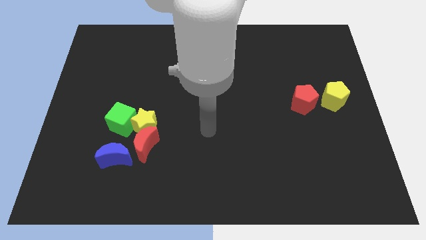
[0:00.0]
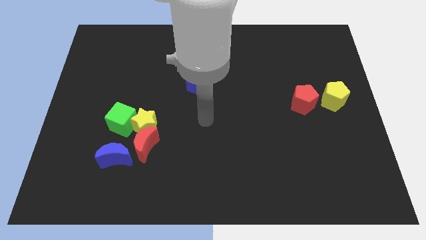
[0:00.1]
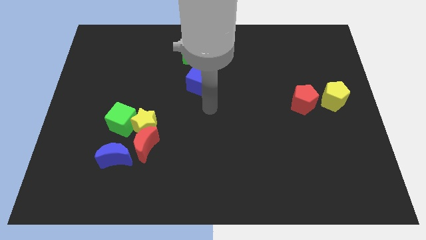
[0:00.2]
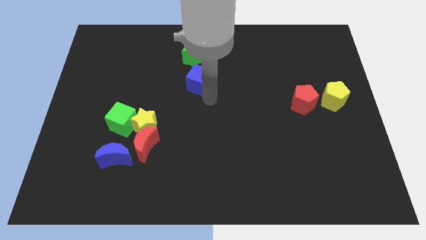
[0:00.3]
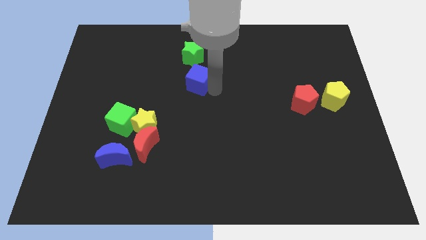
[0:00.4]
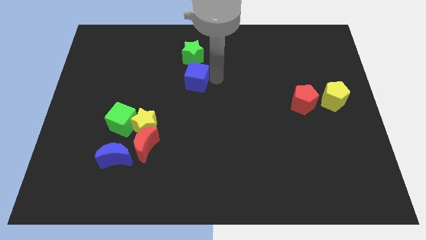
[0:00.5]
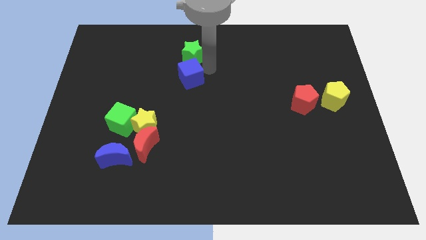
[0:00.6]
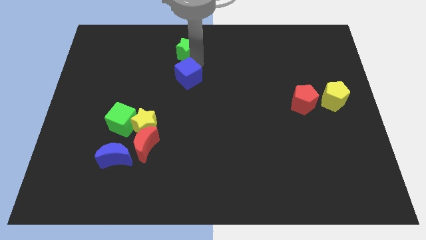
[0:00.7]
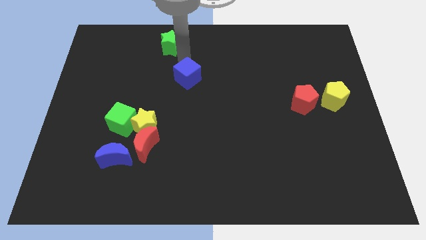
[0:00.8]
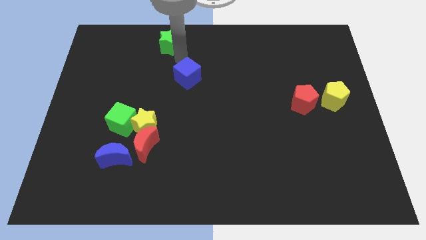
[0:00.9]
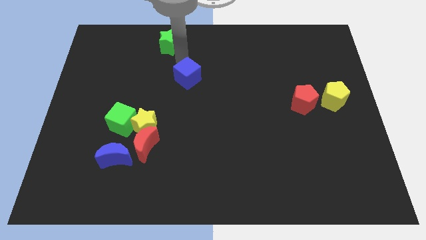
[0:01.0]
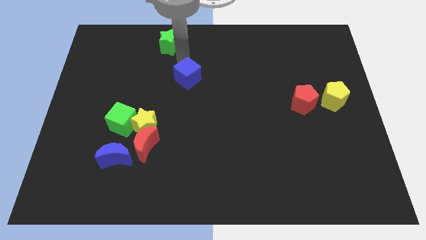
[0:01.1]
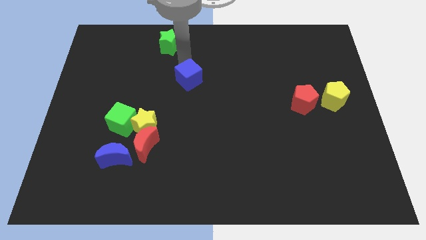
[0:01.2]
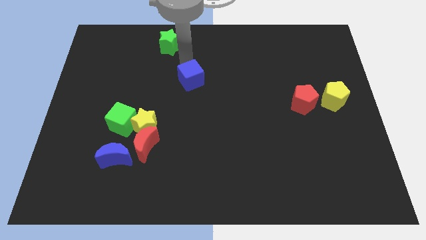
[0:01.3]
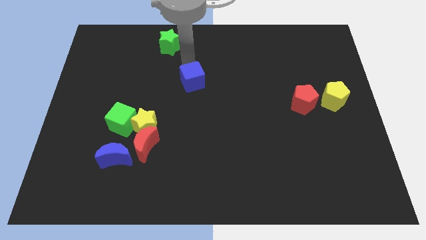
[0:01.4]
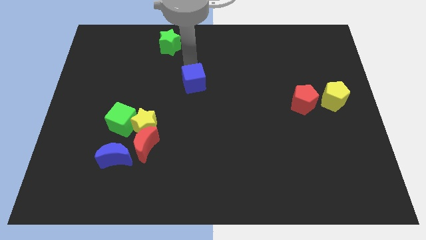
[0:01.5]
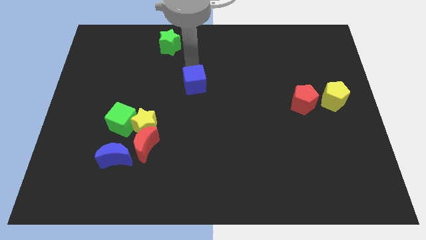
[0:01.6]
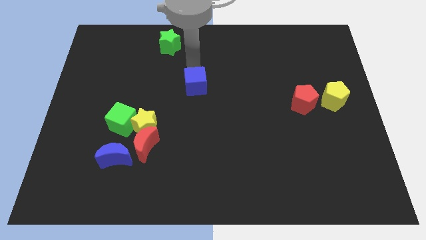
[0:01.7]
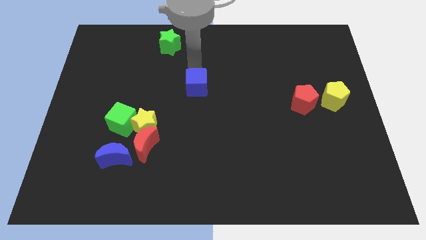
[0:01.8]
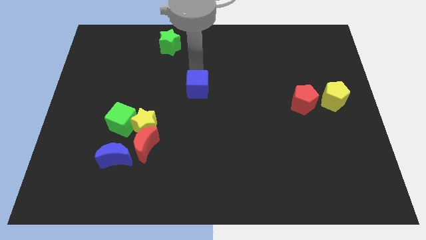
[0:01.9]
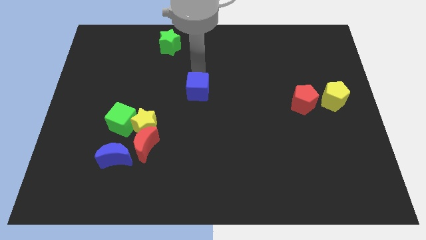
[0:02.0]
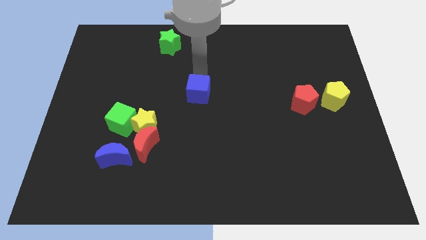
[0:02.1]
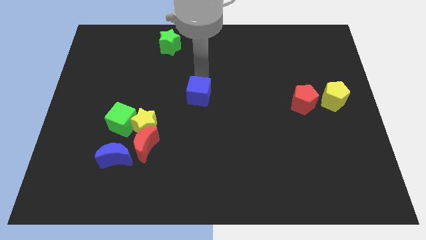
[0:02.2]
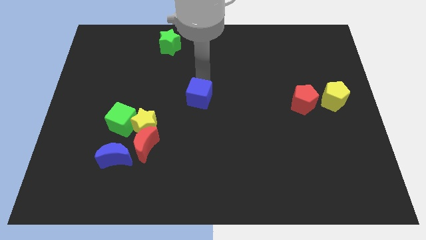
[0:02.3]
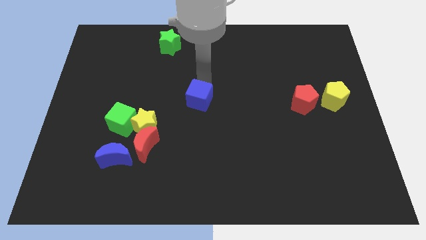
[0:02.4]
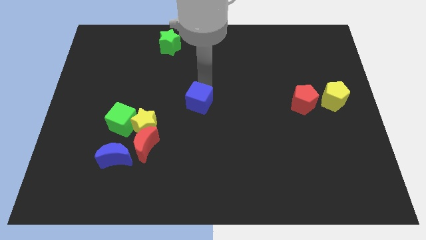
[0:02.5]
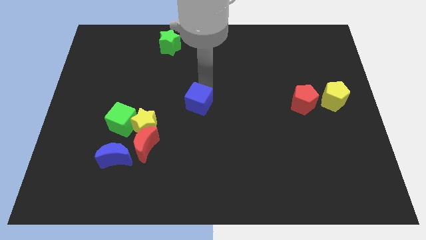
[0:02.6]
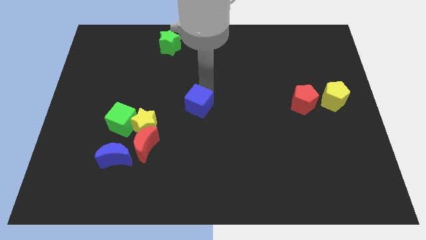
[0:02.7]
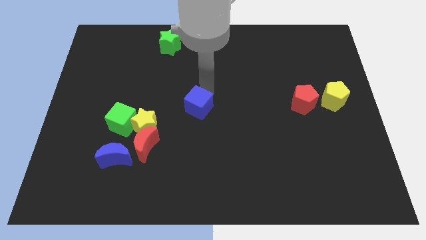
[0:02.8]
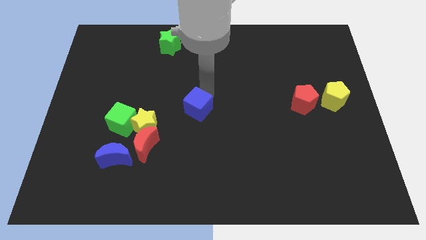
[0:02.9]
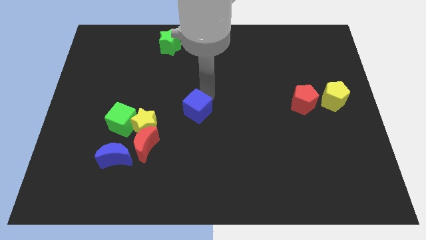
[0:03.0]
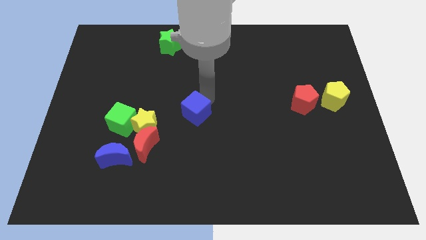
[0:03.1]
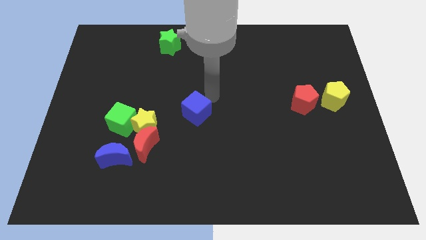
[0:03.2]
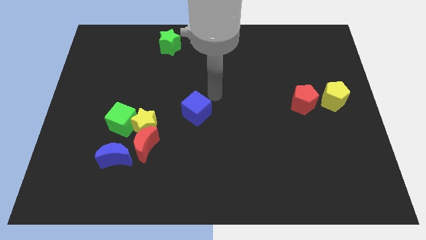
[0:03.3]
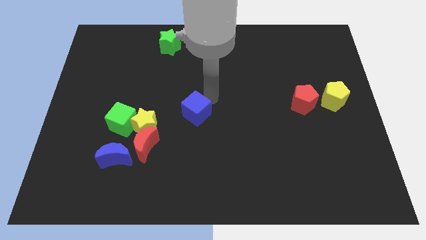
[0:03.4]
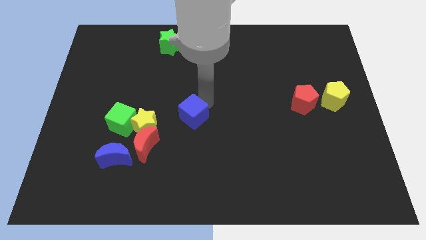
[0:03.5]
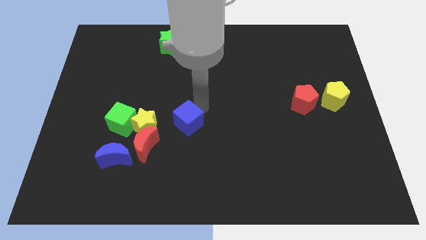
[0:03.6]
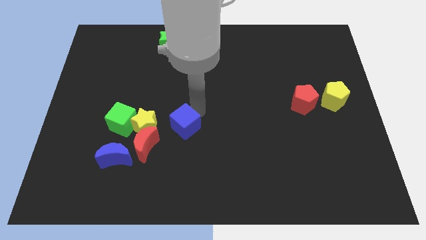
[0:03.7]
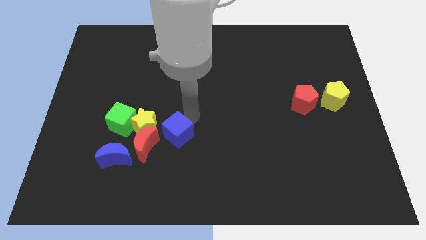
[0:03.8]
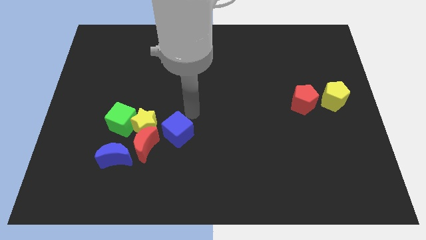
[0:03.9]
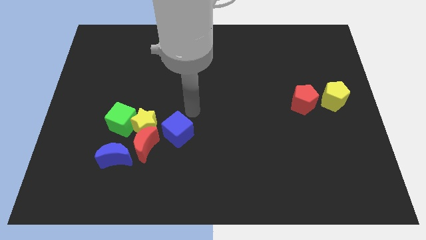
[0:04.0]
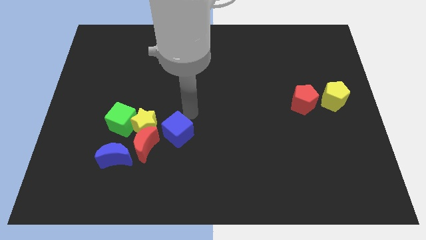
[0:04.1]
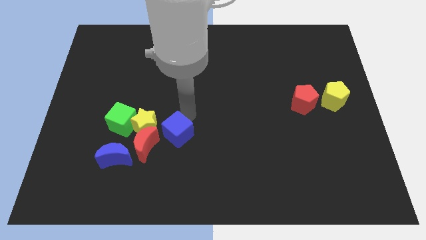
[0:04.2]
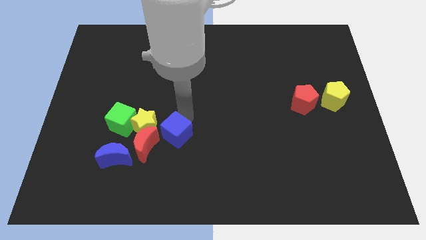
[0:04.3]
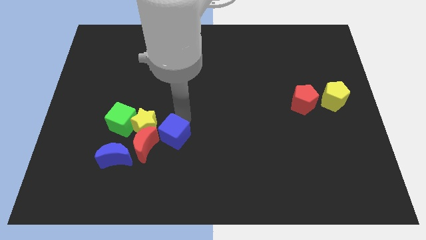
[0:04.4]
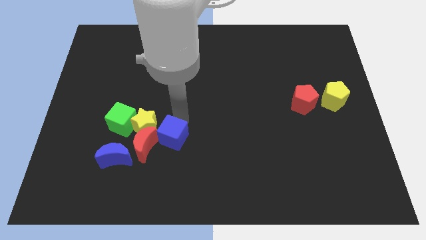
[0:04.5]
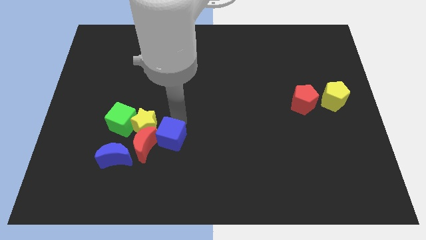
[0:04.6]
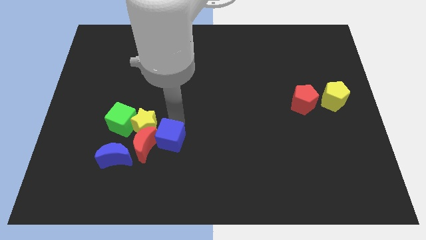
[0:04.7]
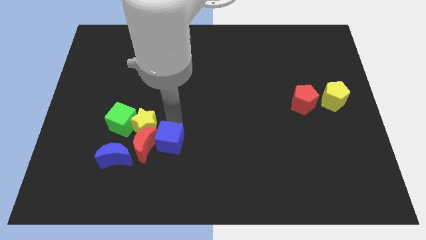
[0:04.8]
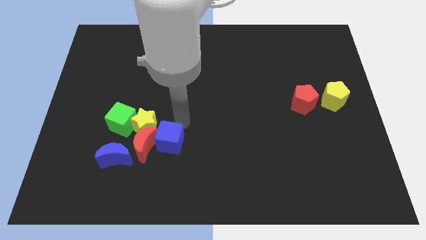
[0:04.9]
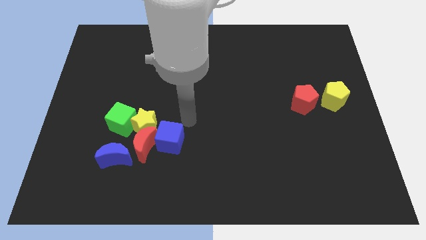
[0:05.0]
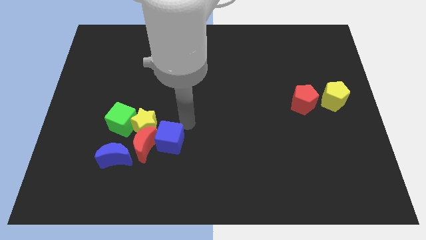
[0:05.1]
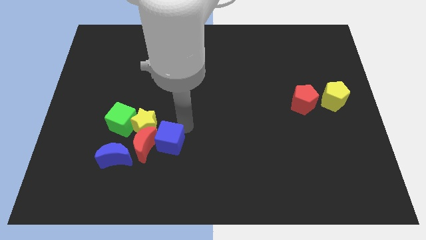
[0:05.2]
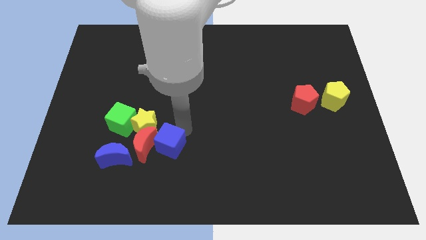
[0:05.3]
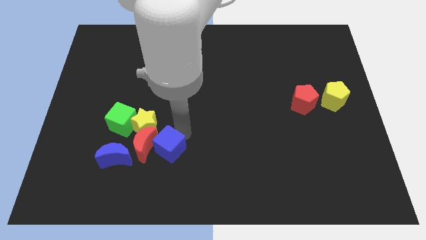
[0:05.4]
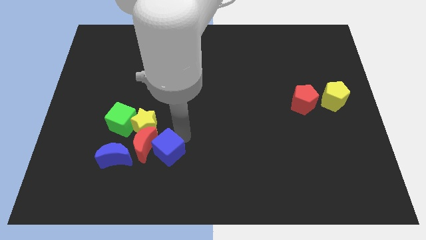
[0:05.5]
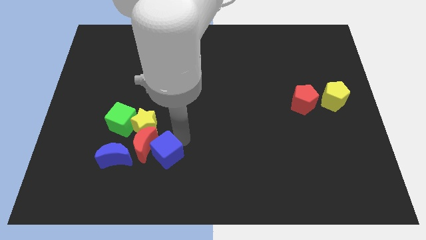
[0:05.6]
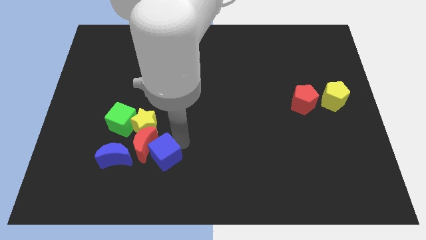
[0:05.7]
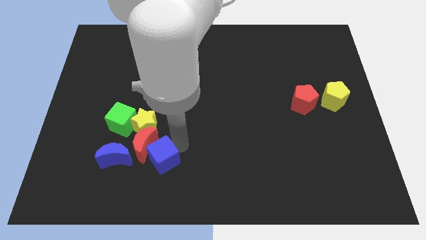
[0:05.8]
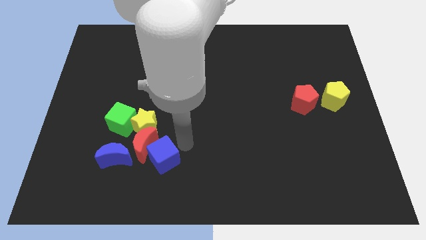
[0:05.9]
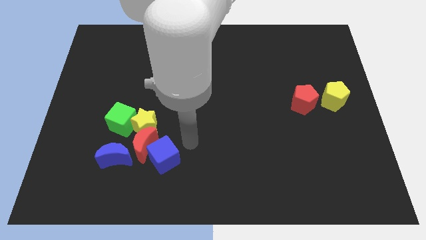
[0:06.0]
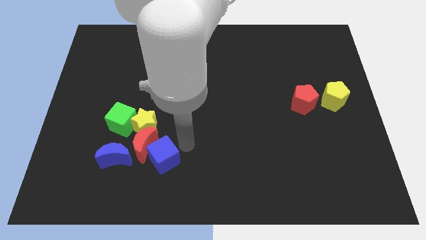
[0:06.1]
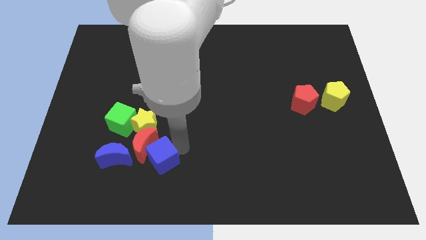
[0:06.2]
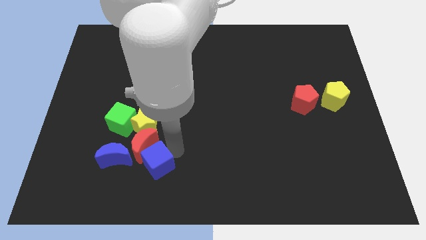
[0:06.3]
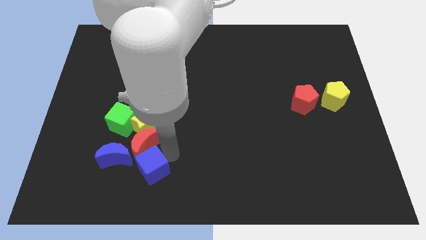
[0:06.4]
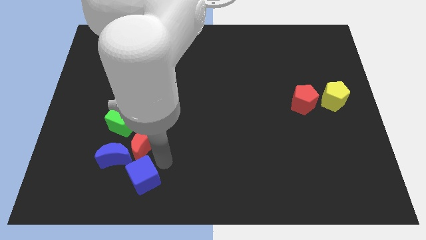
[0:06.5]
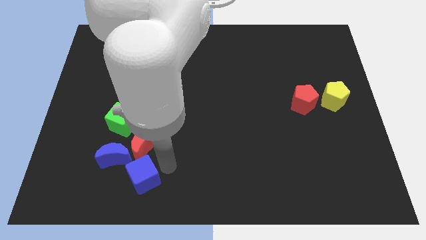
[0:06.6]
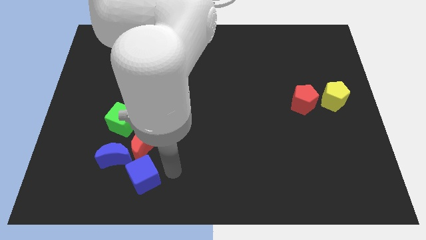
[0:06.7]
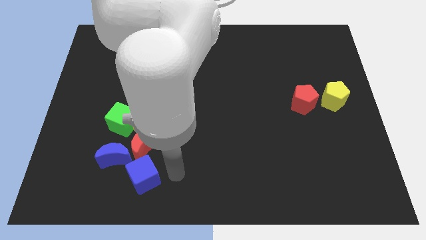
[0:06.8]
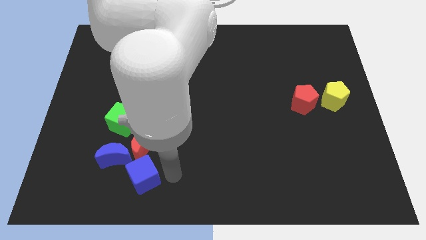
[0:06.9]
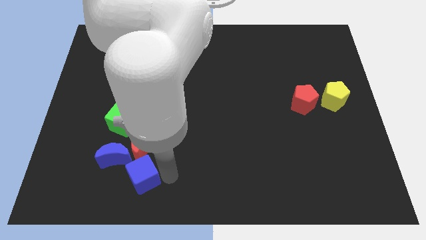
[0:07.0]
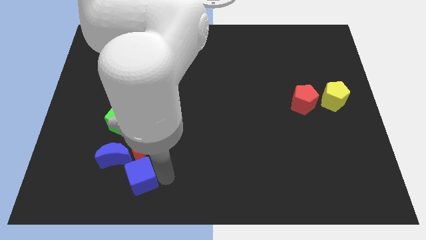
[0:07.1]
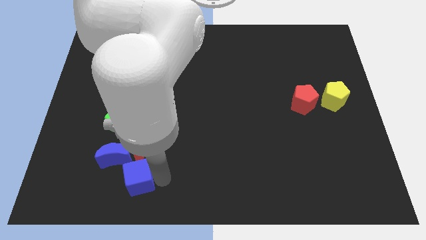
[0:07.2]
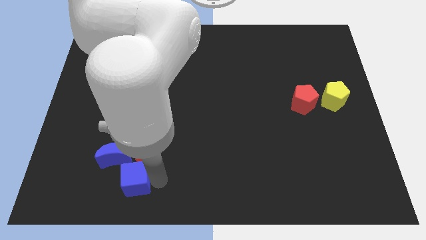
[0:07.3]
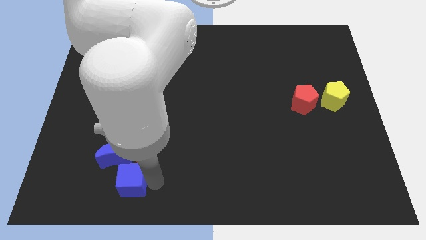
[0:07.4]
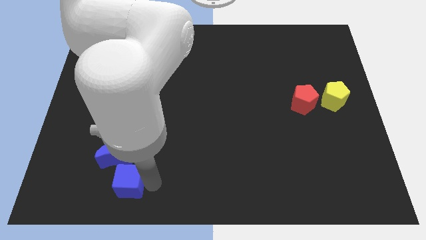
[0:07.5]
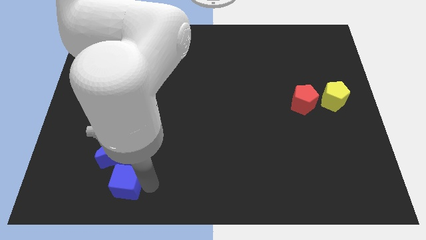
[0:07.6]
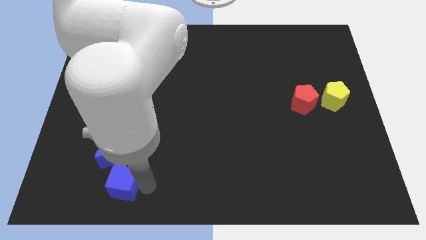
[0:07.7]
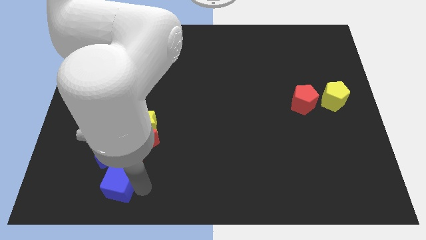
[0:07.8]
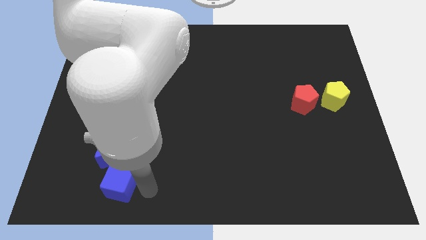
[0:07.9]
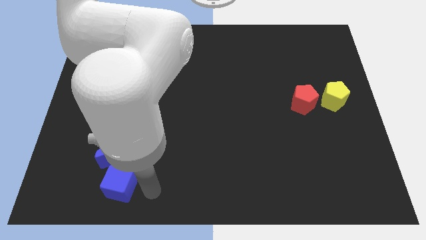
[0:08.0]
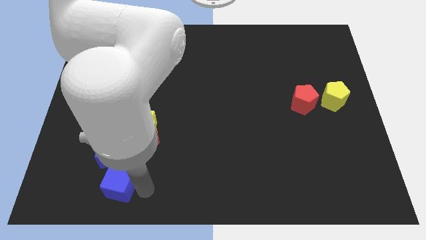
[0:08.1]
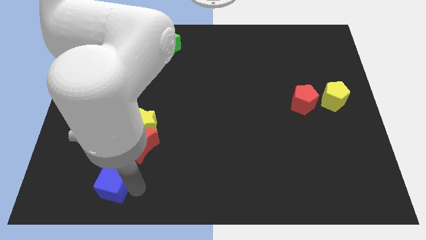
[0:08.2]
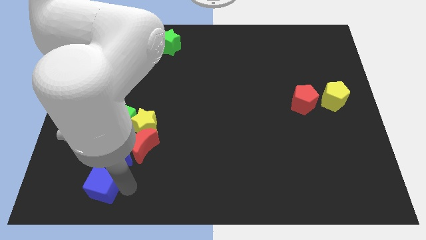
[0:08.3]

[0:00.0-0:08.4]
move the blue cube diagonally down and to the left of the blue moon
